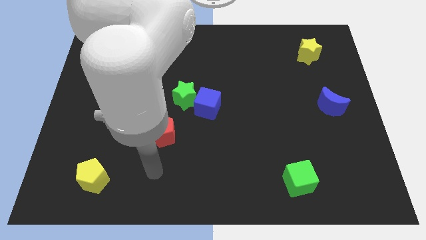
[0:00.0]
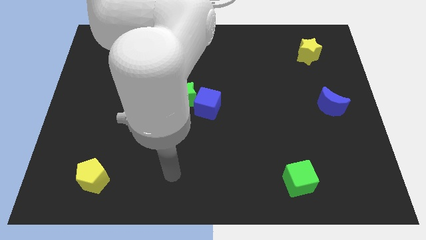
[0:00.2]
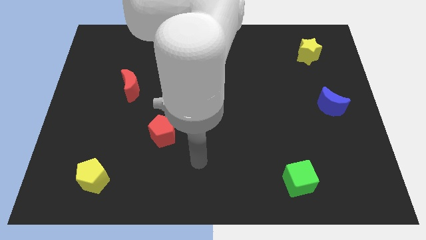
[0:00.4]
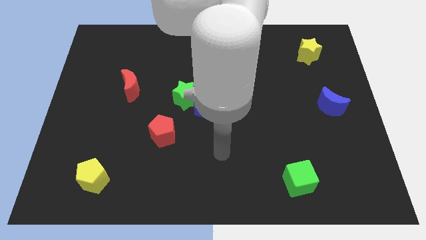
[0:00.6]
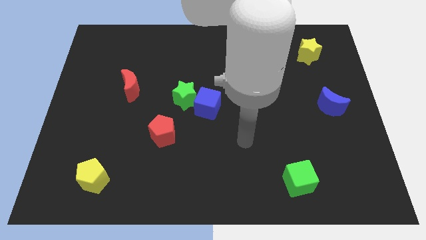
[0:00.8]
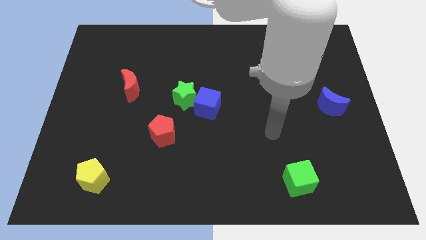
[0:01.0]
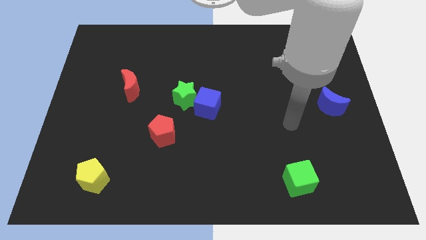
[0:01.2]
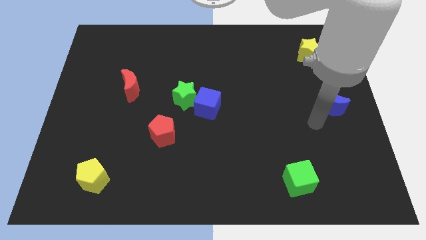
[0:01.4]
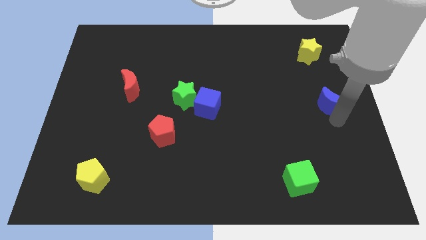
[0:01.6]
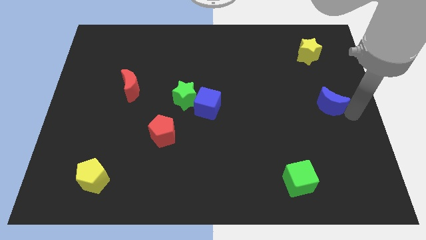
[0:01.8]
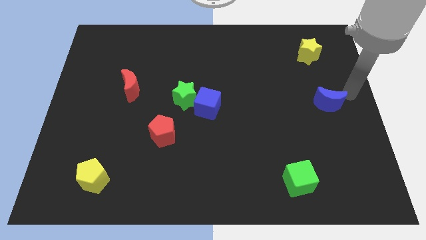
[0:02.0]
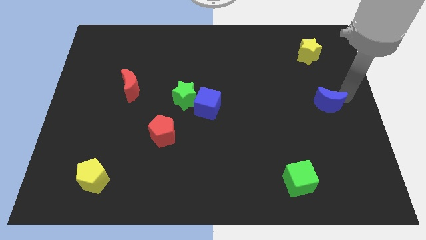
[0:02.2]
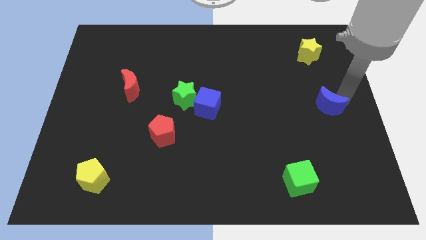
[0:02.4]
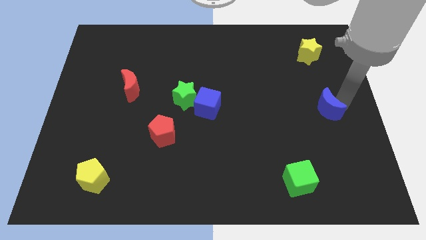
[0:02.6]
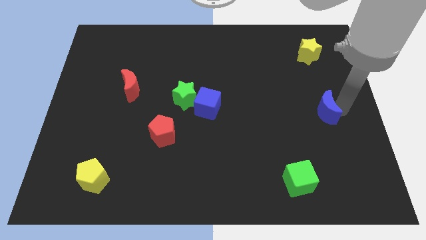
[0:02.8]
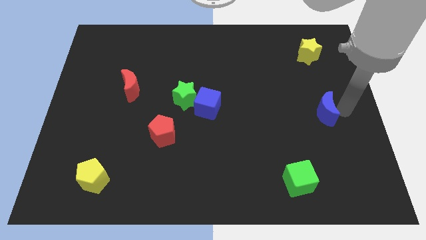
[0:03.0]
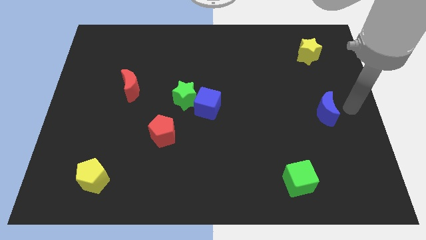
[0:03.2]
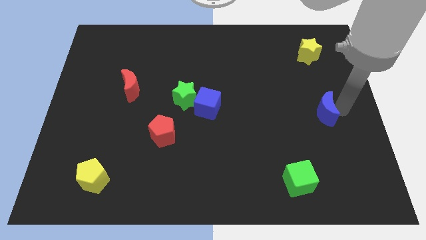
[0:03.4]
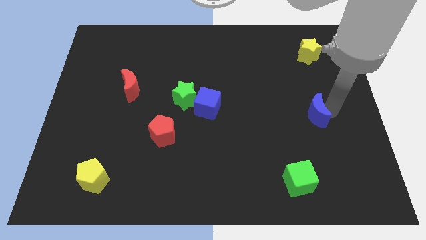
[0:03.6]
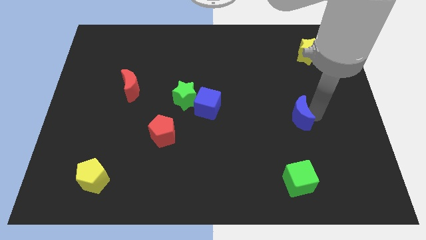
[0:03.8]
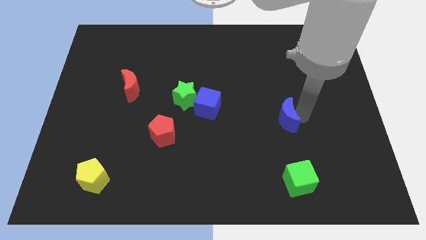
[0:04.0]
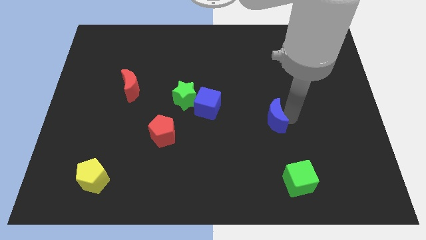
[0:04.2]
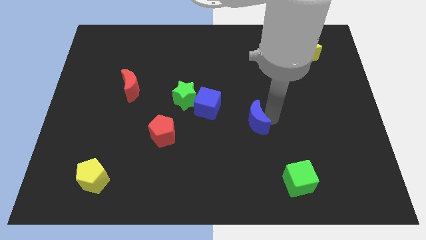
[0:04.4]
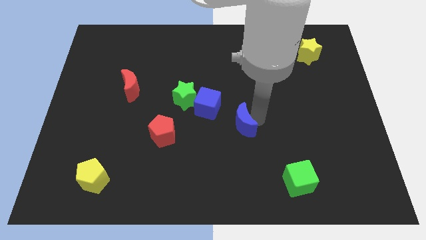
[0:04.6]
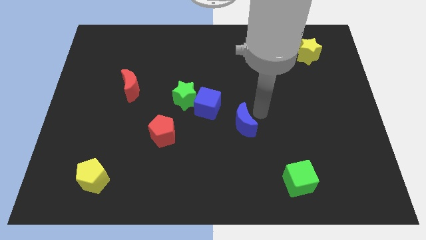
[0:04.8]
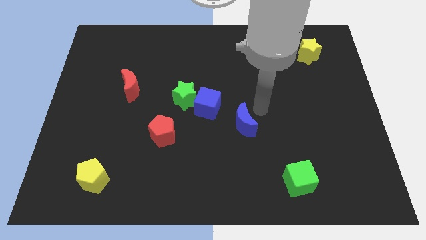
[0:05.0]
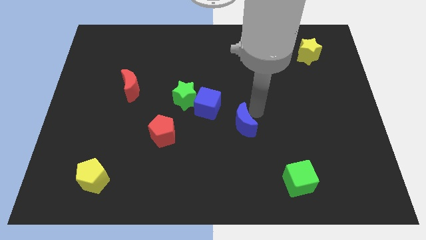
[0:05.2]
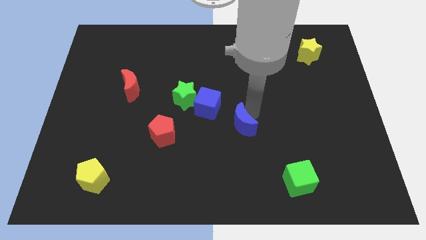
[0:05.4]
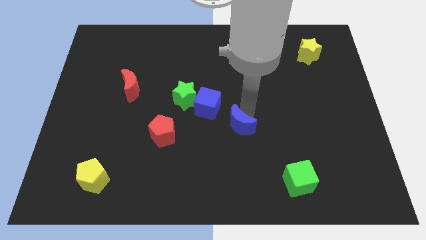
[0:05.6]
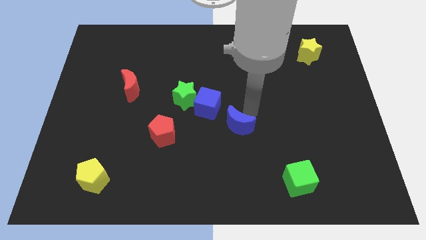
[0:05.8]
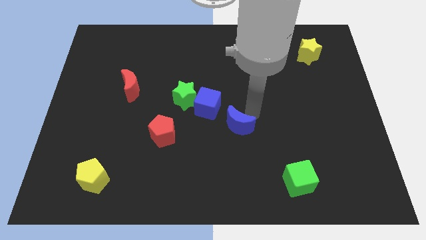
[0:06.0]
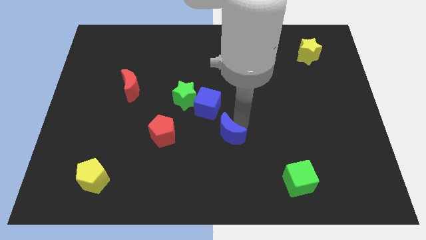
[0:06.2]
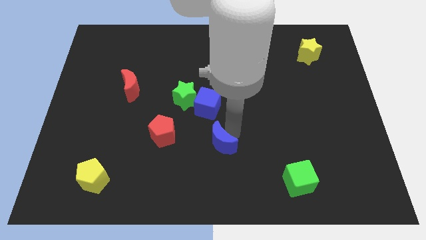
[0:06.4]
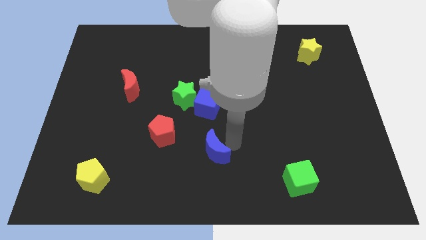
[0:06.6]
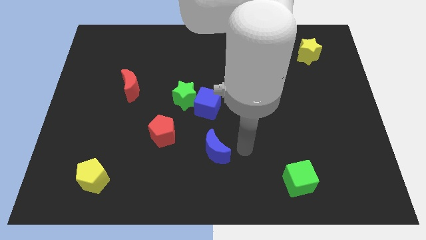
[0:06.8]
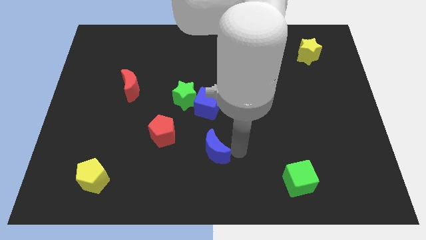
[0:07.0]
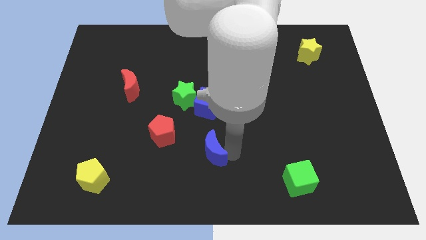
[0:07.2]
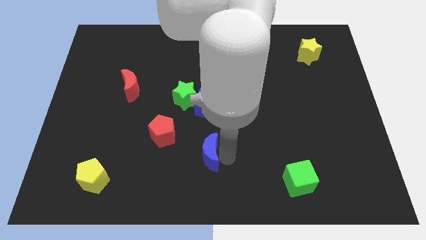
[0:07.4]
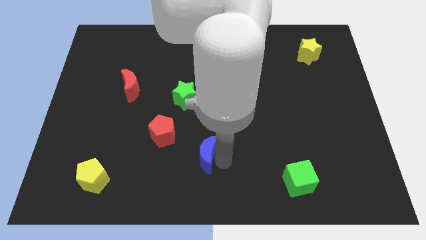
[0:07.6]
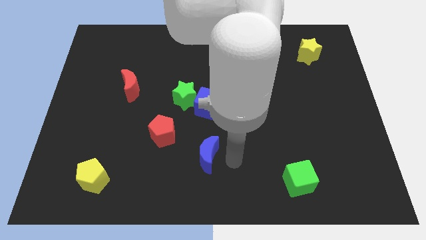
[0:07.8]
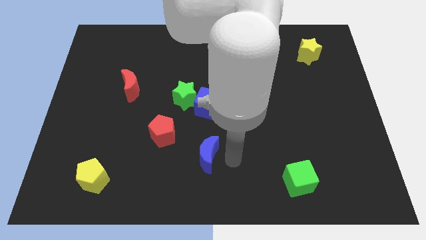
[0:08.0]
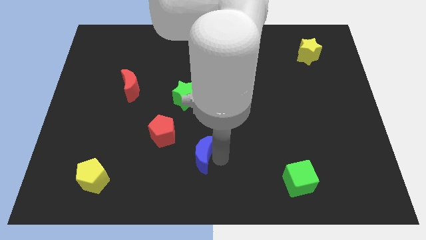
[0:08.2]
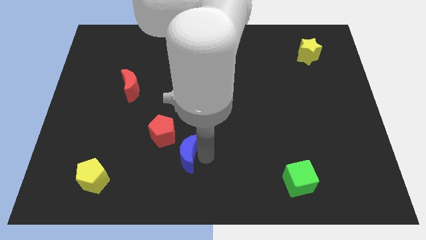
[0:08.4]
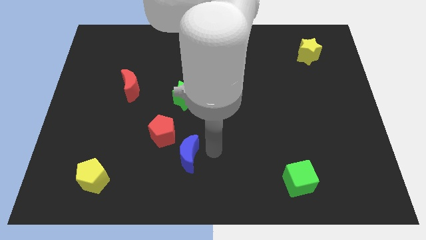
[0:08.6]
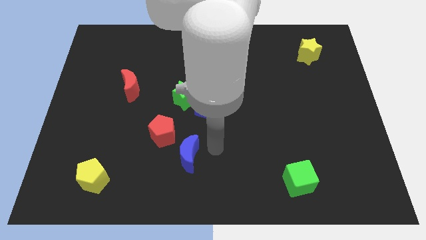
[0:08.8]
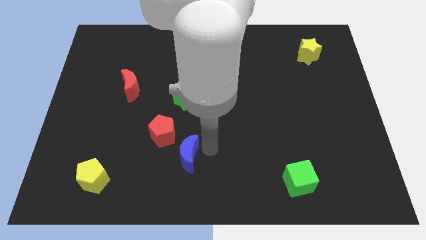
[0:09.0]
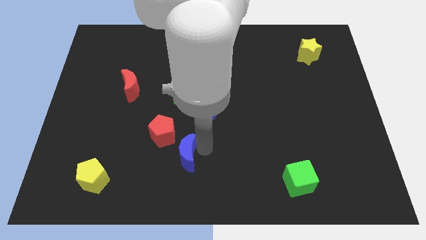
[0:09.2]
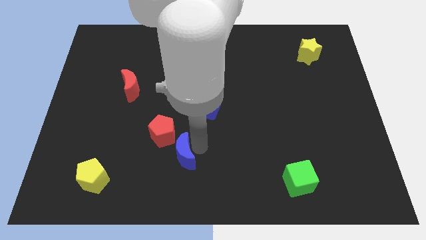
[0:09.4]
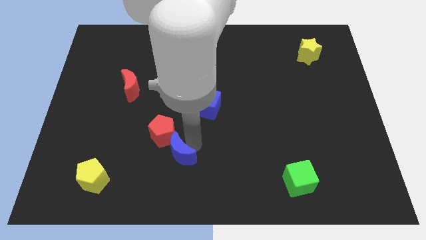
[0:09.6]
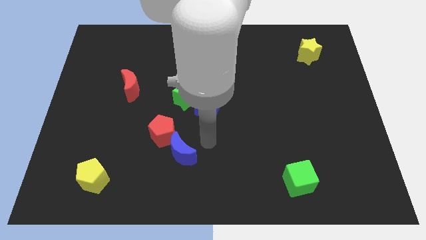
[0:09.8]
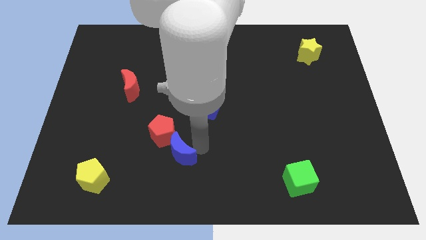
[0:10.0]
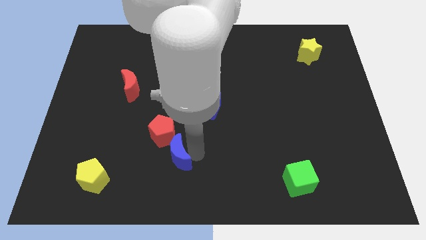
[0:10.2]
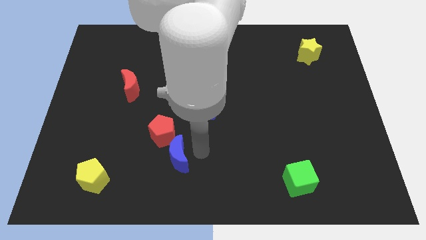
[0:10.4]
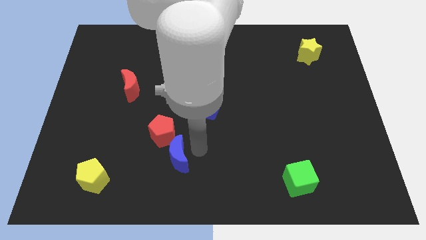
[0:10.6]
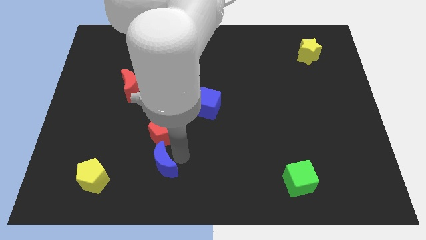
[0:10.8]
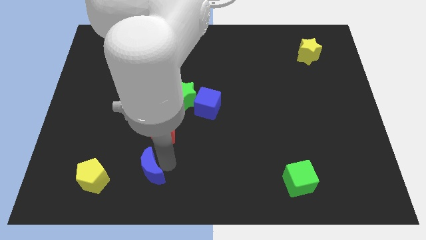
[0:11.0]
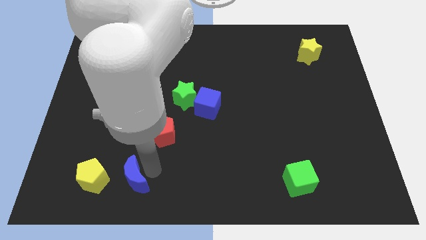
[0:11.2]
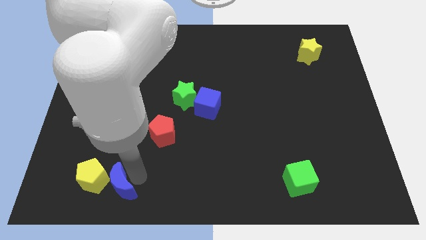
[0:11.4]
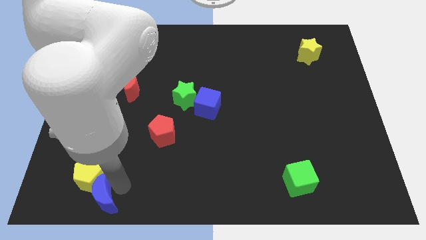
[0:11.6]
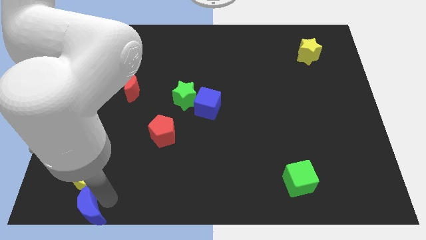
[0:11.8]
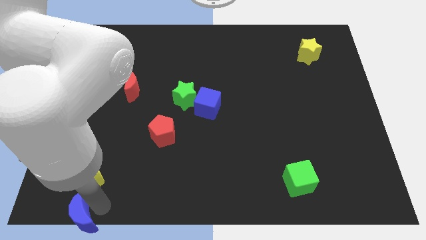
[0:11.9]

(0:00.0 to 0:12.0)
slide the blue moon to the bottom left

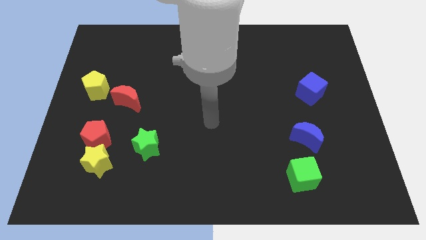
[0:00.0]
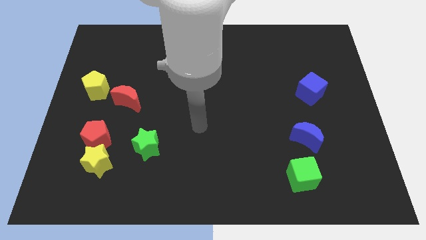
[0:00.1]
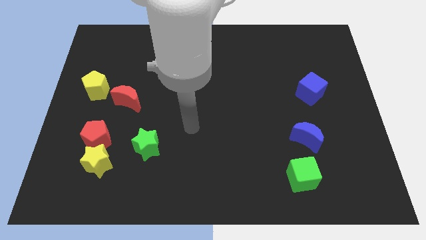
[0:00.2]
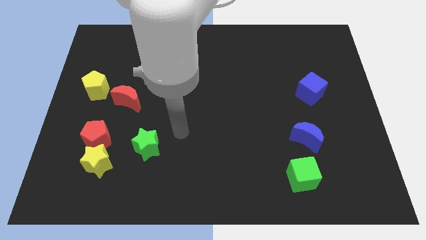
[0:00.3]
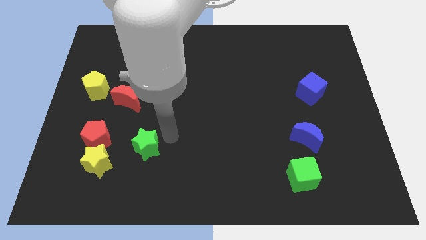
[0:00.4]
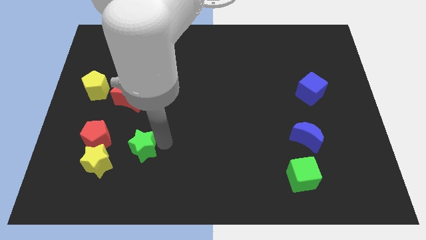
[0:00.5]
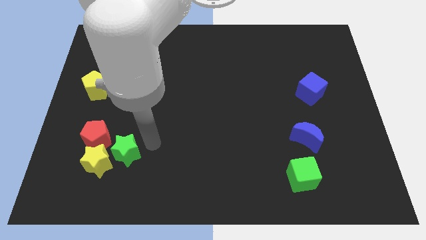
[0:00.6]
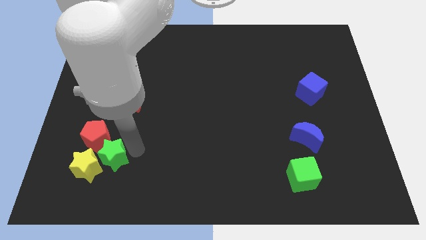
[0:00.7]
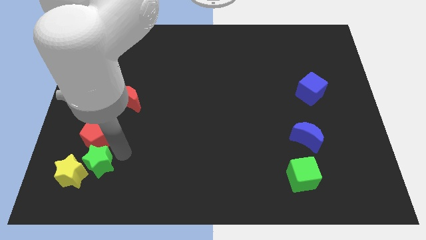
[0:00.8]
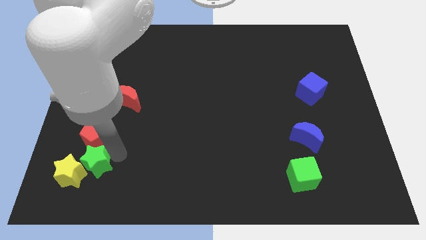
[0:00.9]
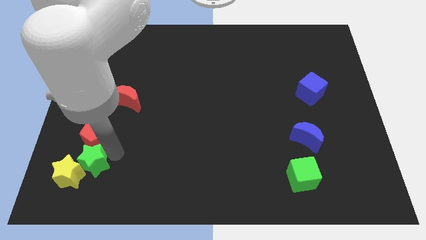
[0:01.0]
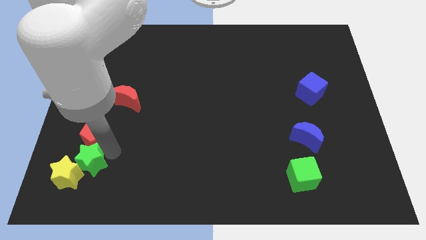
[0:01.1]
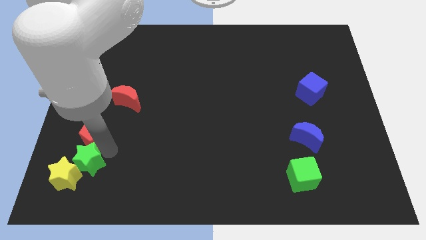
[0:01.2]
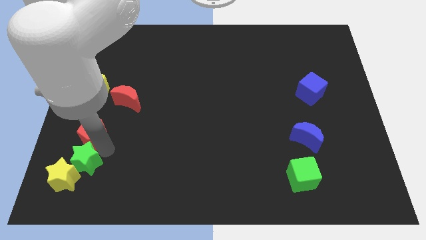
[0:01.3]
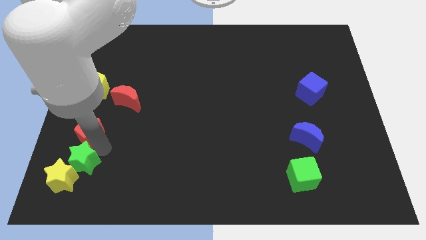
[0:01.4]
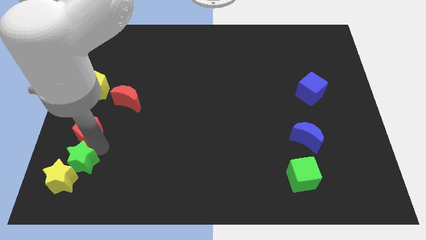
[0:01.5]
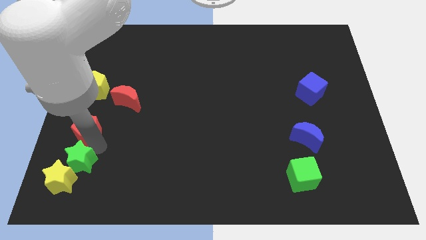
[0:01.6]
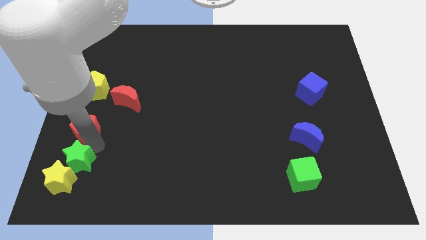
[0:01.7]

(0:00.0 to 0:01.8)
slide the red pentagon to the left side
